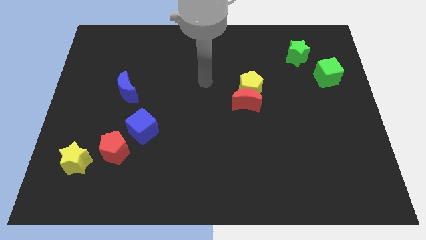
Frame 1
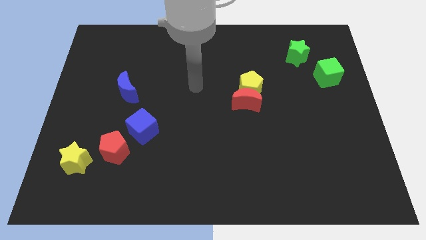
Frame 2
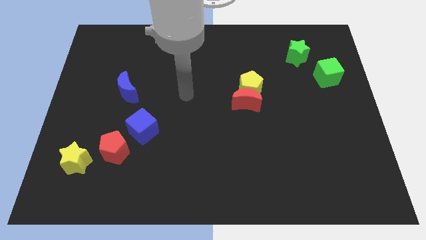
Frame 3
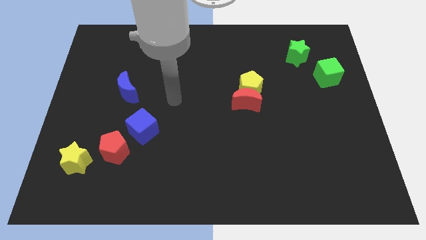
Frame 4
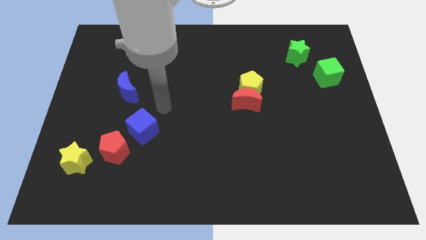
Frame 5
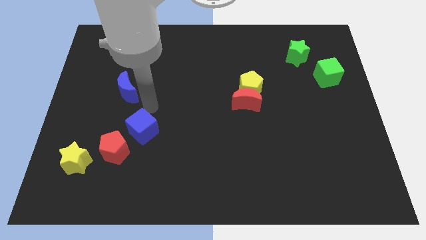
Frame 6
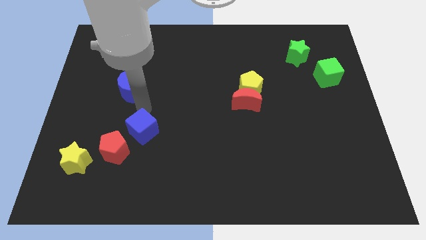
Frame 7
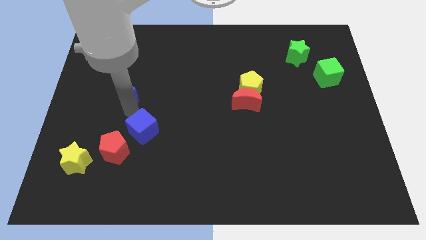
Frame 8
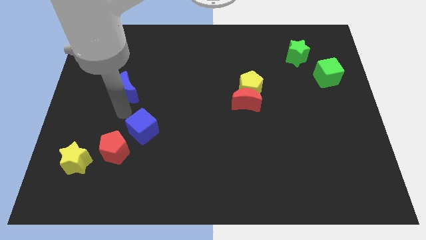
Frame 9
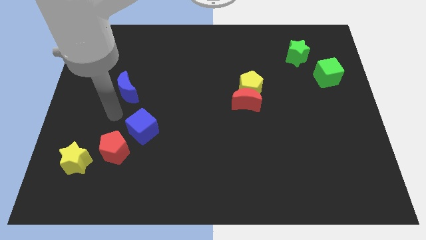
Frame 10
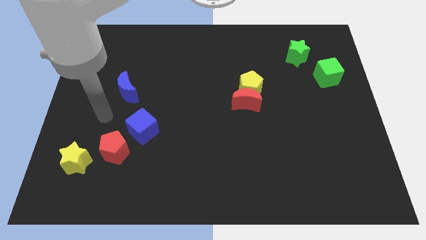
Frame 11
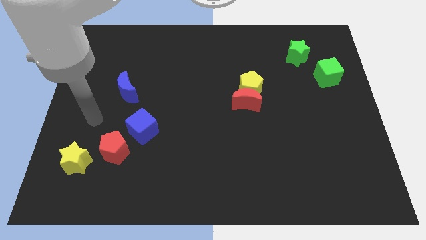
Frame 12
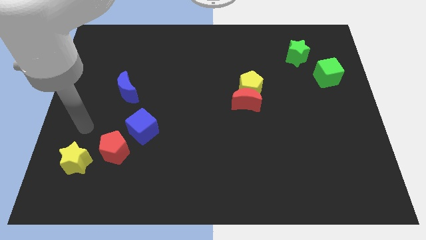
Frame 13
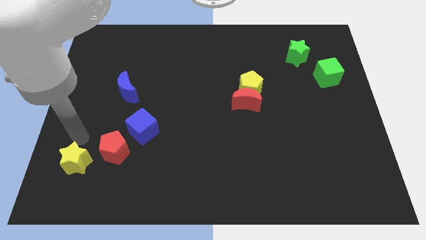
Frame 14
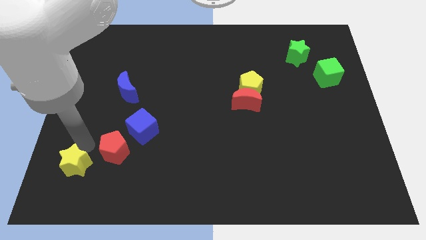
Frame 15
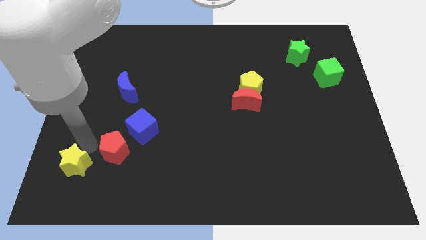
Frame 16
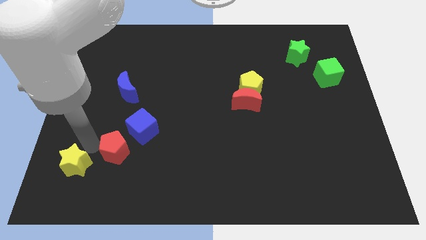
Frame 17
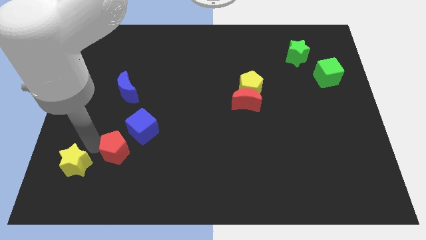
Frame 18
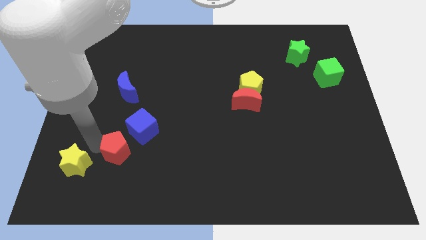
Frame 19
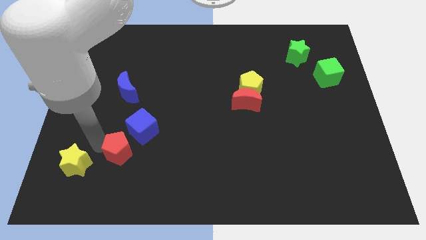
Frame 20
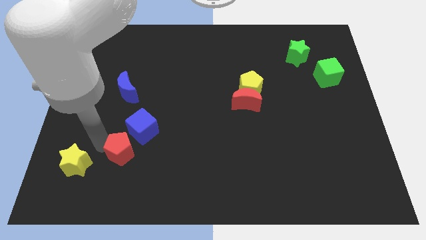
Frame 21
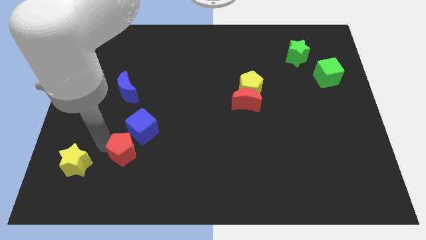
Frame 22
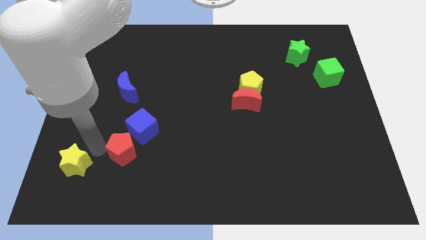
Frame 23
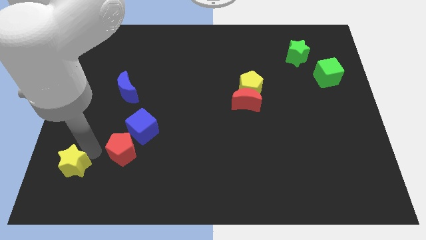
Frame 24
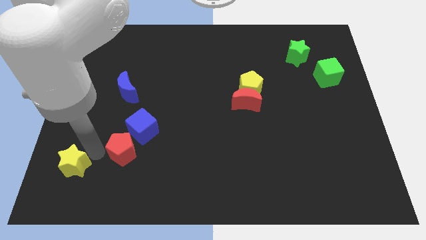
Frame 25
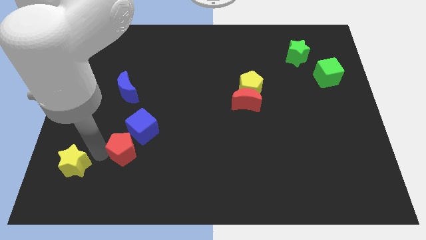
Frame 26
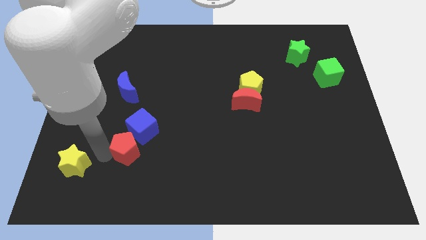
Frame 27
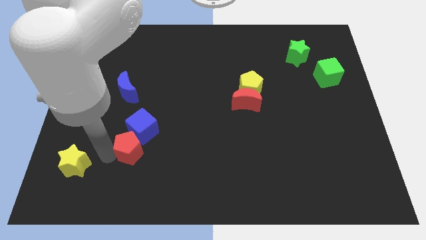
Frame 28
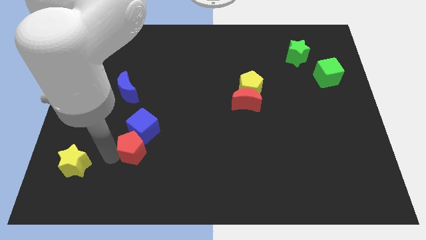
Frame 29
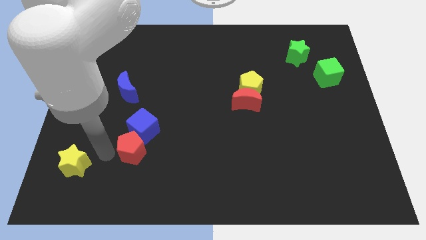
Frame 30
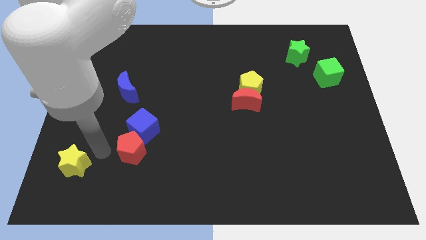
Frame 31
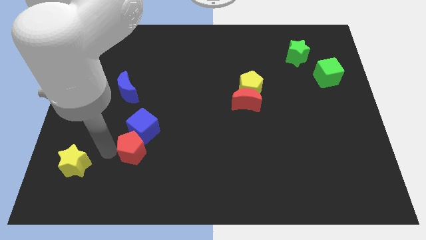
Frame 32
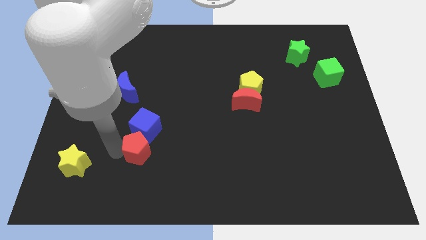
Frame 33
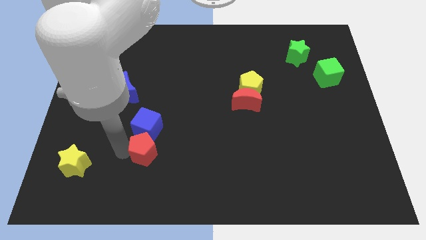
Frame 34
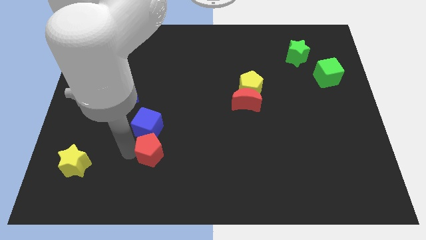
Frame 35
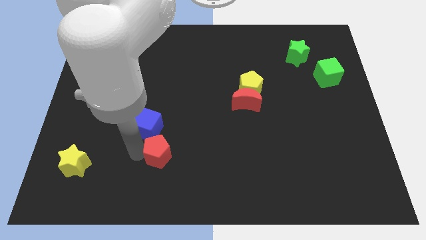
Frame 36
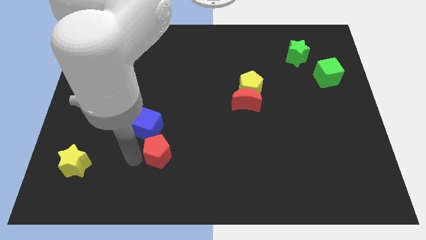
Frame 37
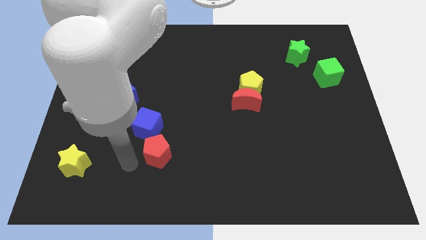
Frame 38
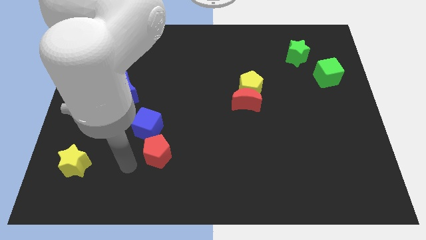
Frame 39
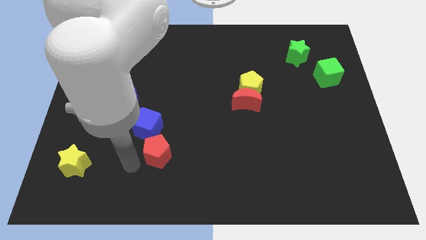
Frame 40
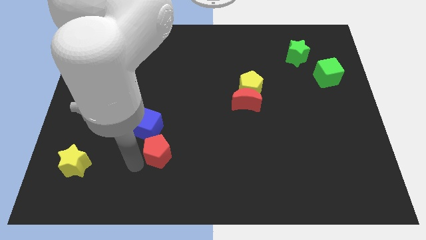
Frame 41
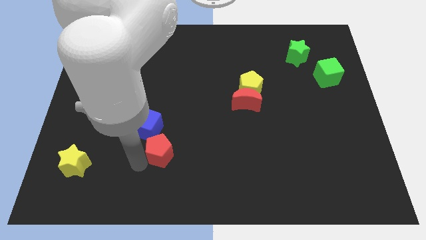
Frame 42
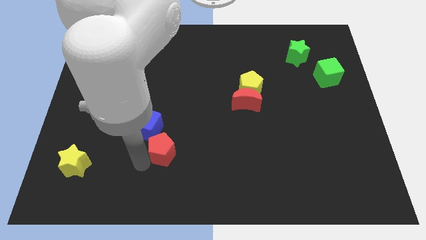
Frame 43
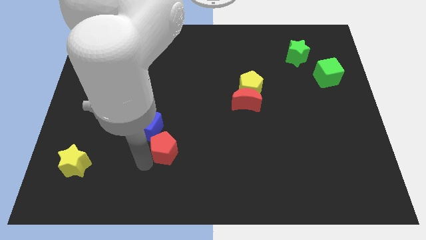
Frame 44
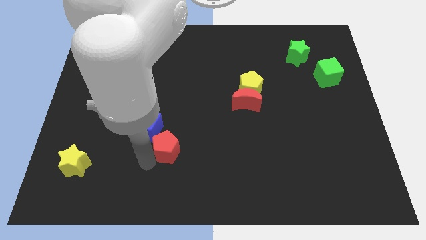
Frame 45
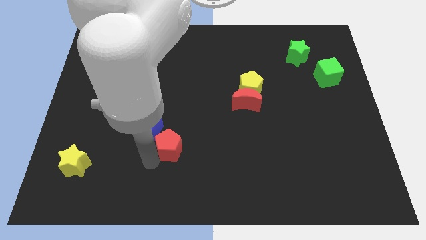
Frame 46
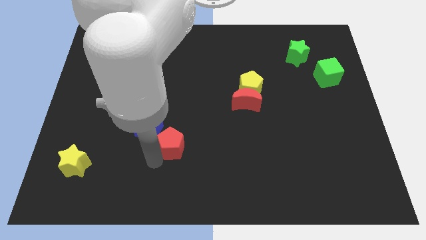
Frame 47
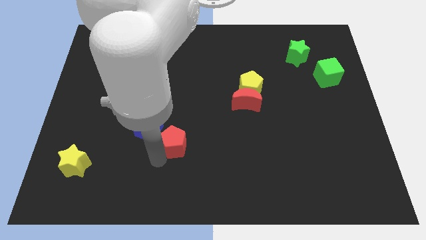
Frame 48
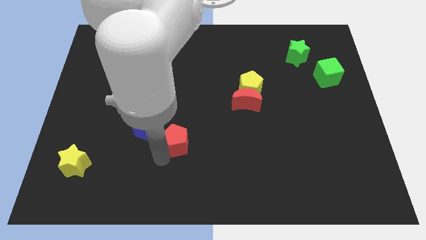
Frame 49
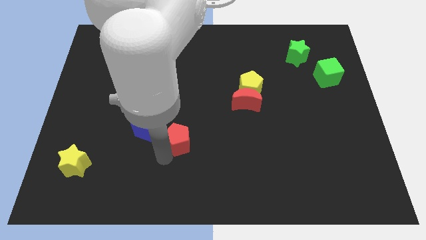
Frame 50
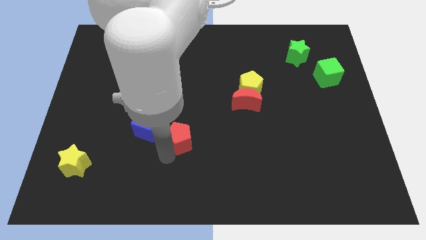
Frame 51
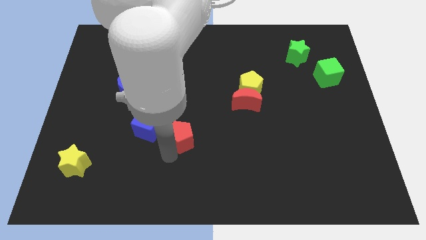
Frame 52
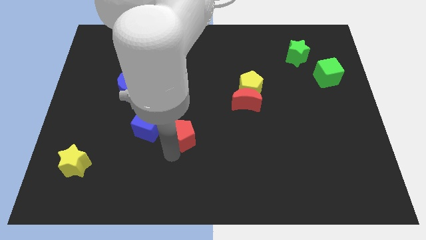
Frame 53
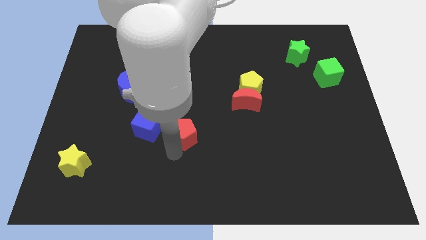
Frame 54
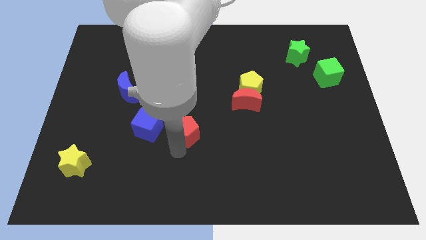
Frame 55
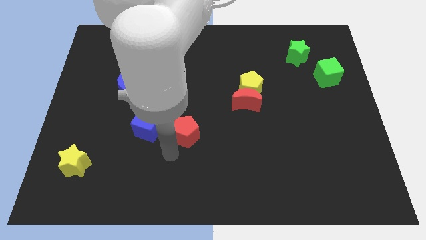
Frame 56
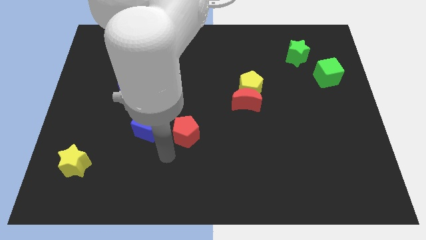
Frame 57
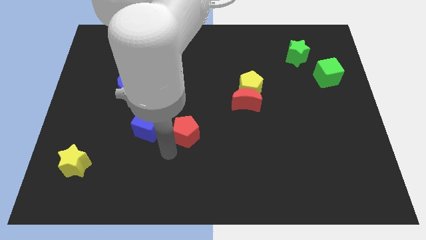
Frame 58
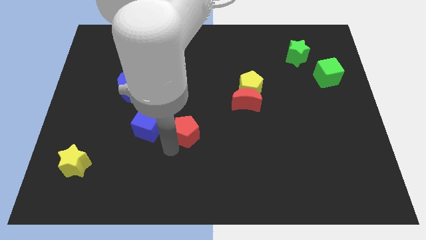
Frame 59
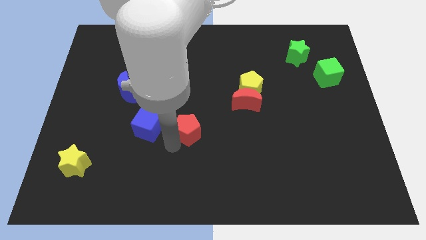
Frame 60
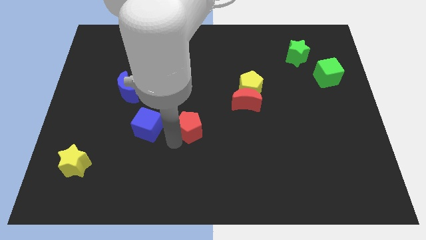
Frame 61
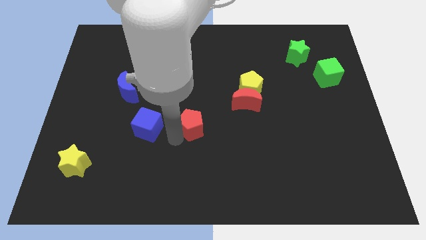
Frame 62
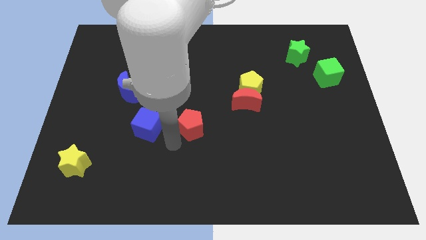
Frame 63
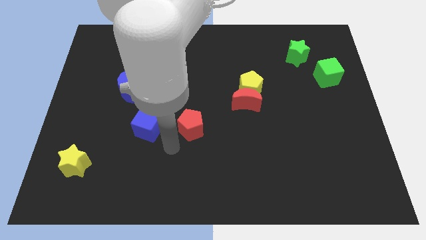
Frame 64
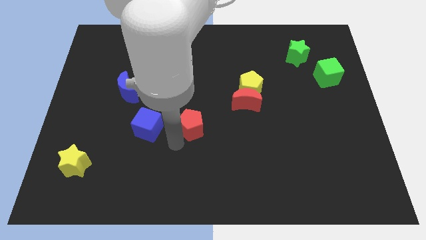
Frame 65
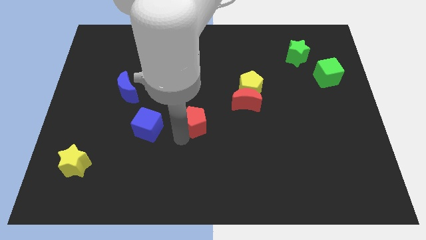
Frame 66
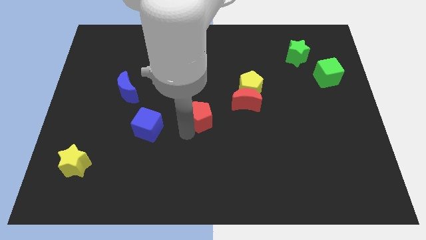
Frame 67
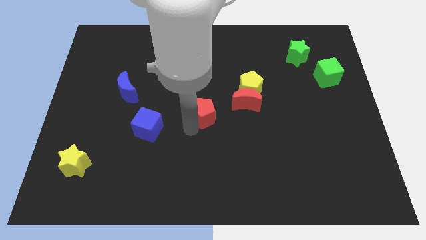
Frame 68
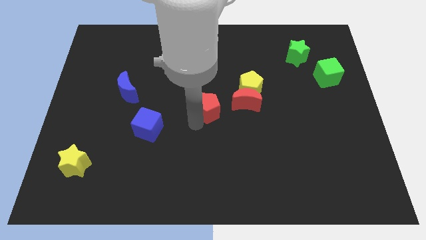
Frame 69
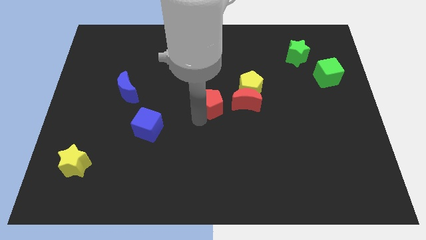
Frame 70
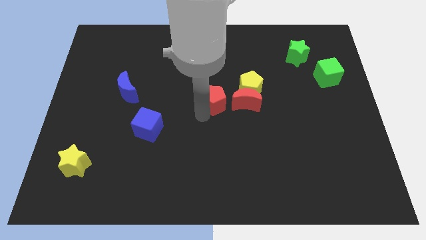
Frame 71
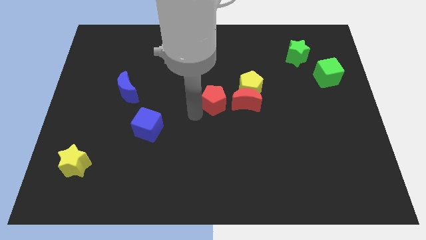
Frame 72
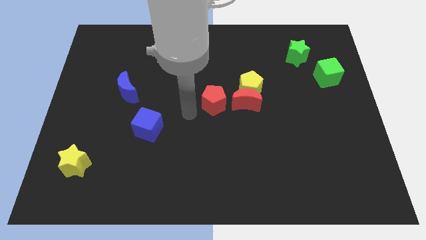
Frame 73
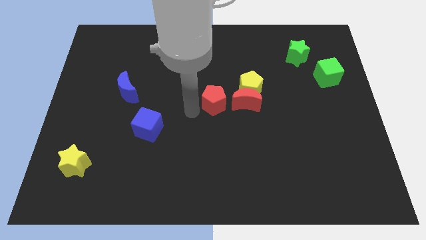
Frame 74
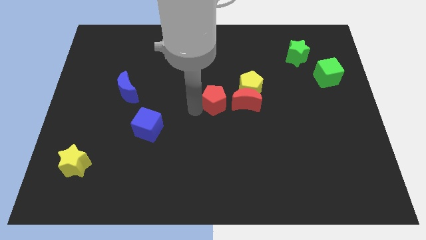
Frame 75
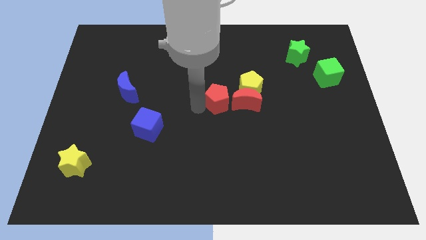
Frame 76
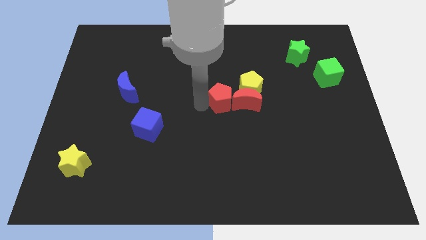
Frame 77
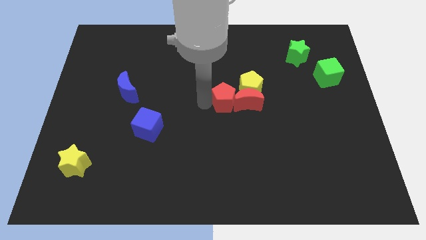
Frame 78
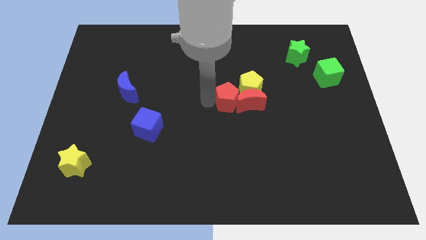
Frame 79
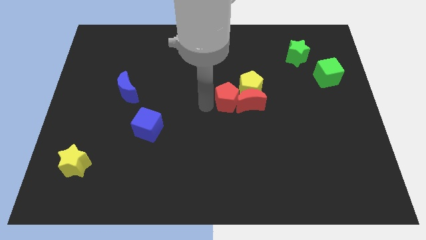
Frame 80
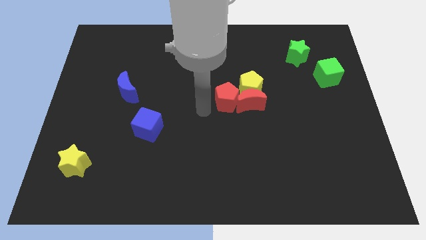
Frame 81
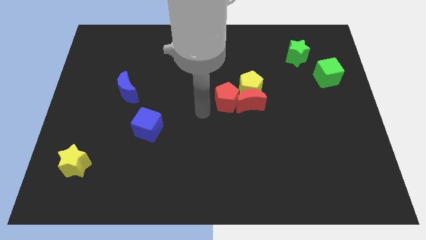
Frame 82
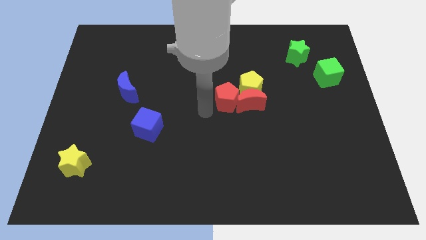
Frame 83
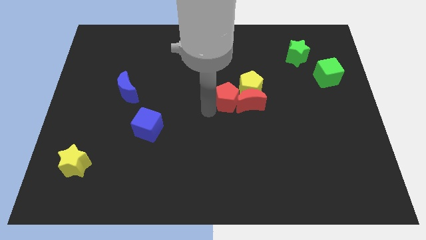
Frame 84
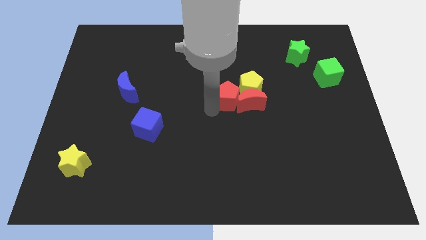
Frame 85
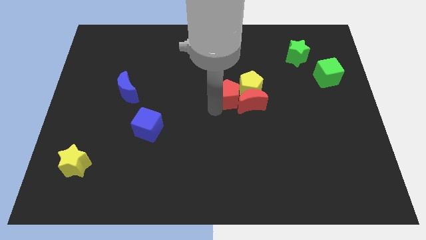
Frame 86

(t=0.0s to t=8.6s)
put the red pentagon towards the yellow pentagon
